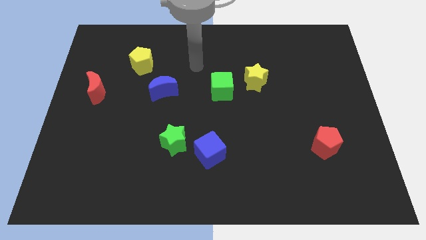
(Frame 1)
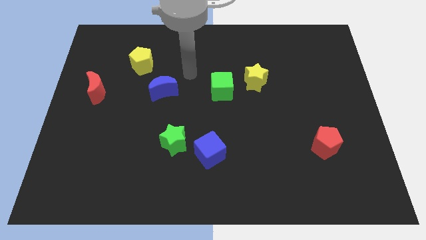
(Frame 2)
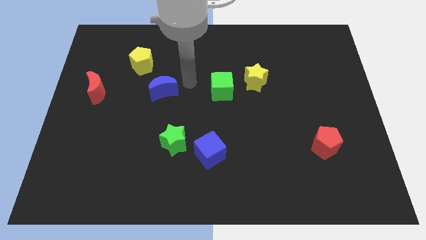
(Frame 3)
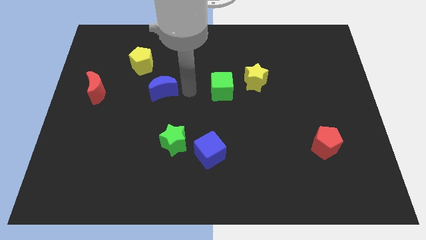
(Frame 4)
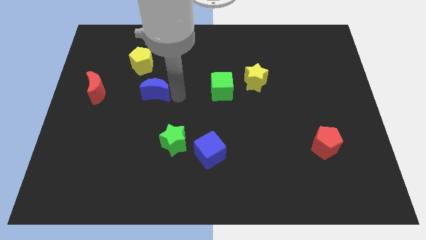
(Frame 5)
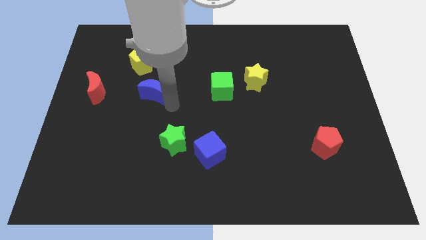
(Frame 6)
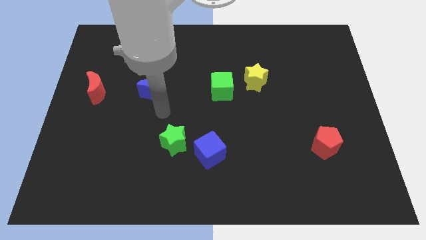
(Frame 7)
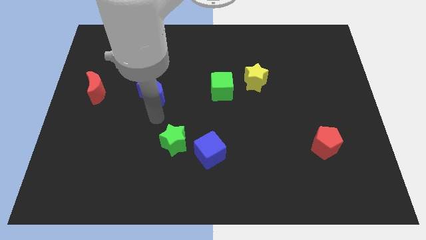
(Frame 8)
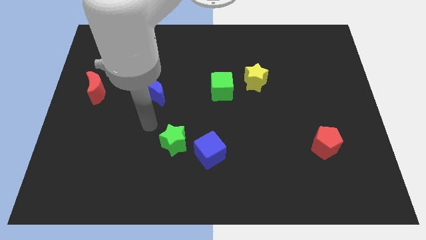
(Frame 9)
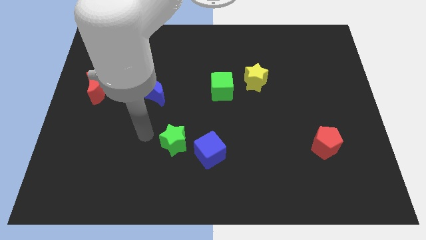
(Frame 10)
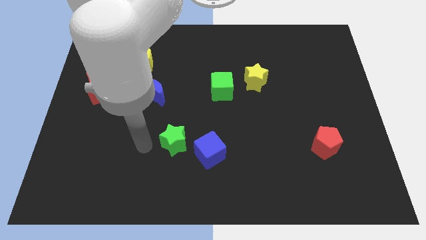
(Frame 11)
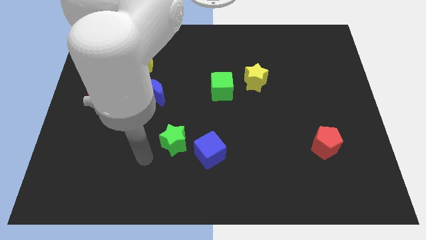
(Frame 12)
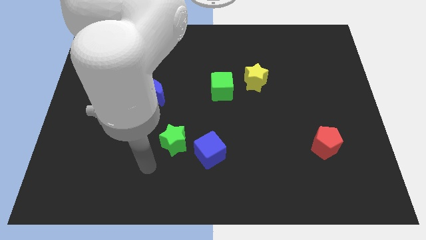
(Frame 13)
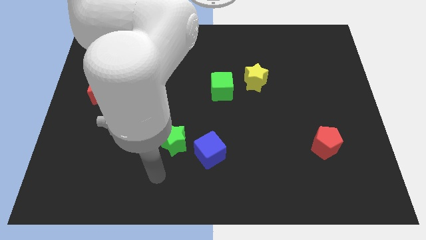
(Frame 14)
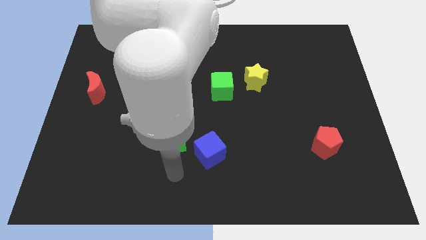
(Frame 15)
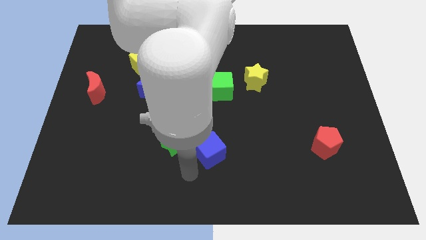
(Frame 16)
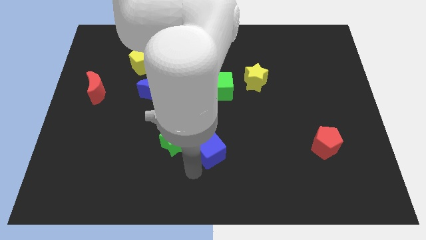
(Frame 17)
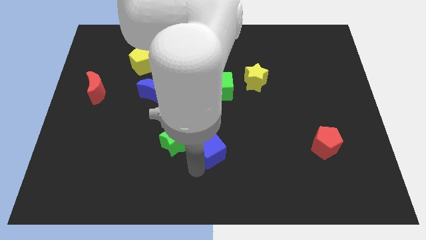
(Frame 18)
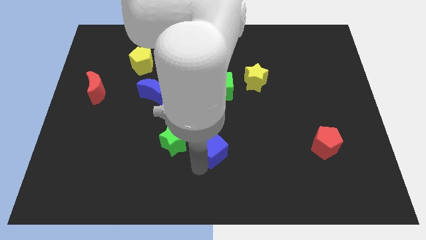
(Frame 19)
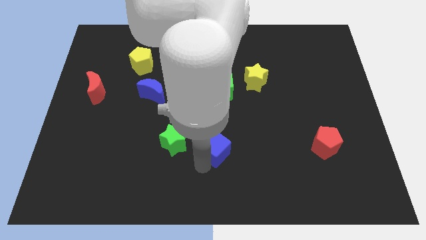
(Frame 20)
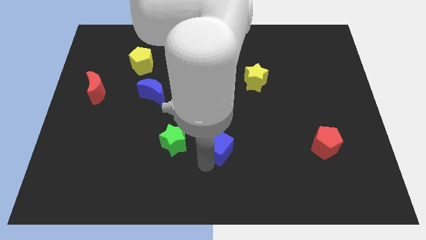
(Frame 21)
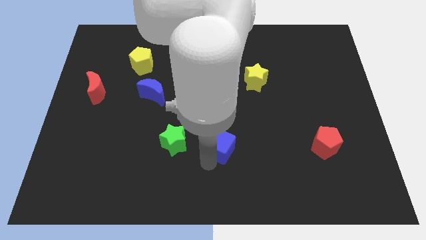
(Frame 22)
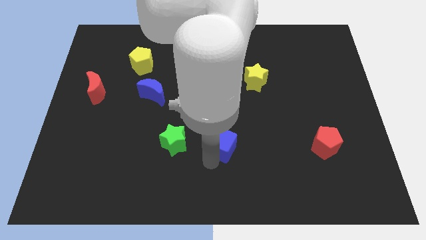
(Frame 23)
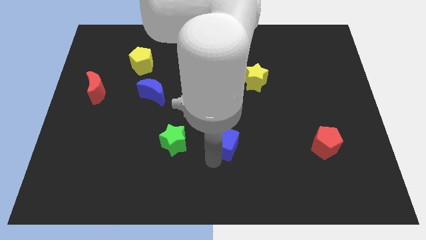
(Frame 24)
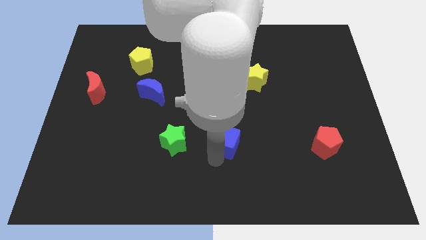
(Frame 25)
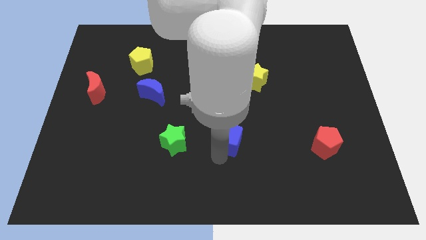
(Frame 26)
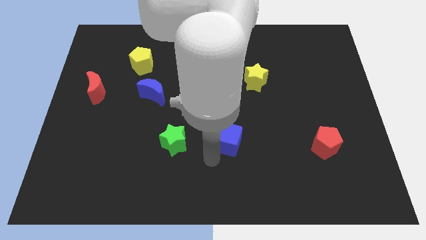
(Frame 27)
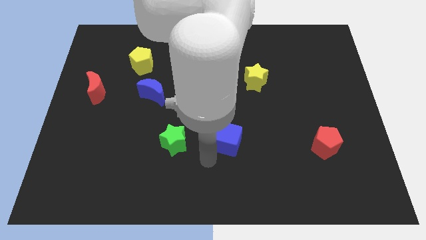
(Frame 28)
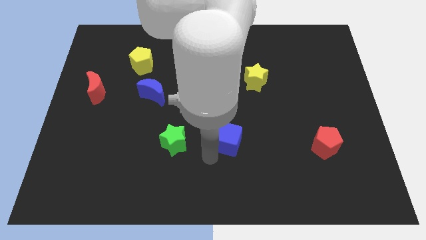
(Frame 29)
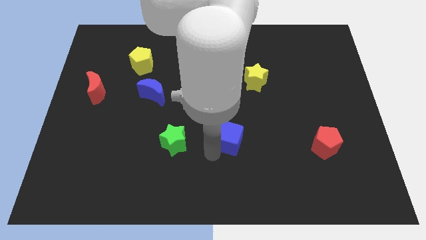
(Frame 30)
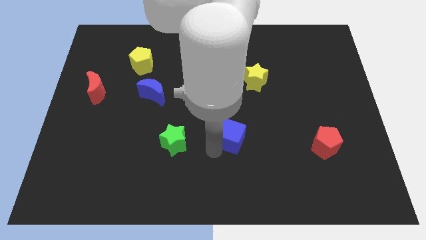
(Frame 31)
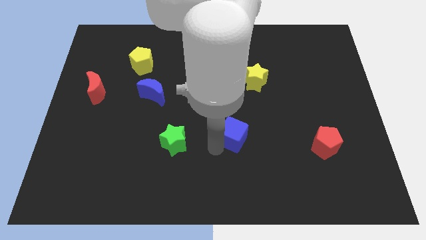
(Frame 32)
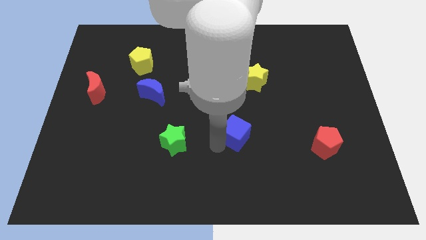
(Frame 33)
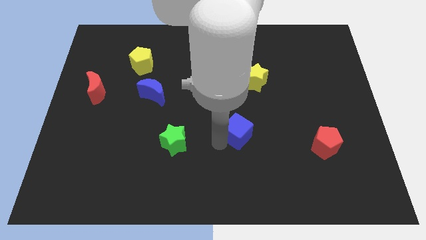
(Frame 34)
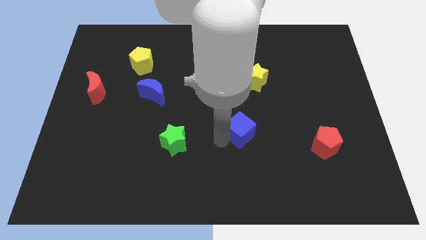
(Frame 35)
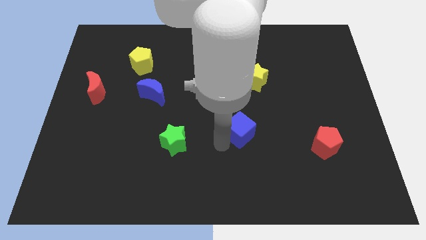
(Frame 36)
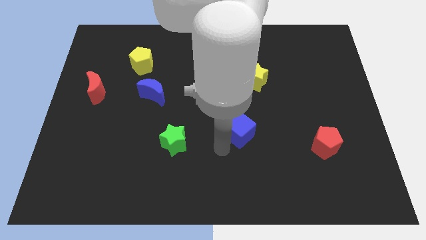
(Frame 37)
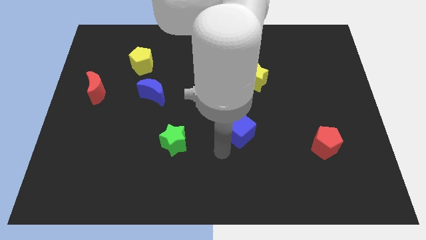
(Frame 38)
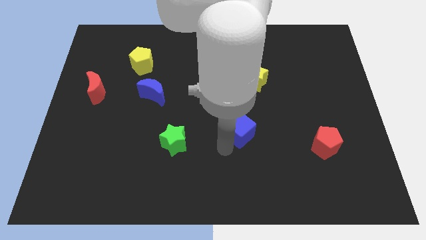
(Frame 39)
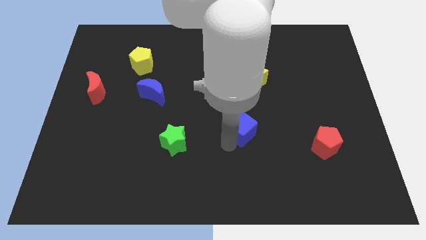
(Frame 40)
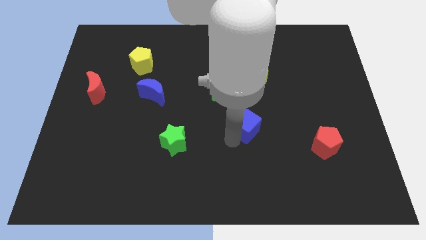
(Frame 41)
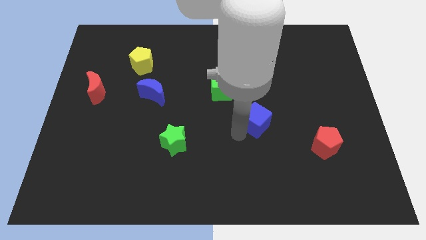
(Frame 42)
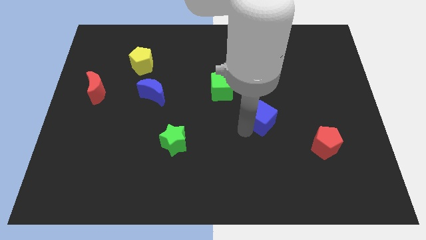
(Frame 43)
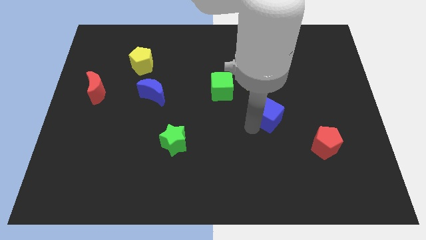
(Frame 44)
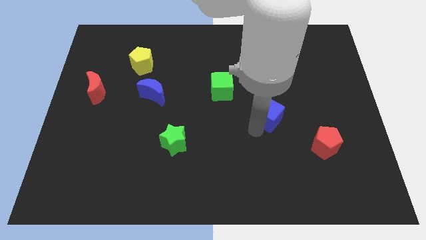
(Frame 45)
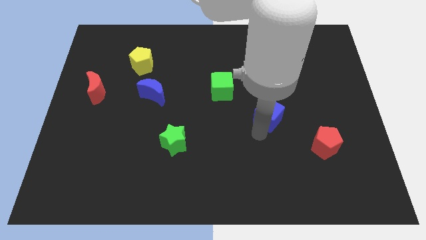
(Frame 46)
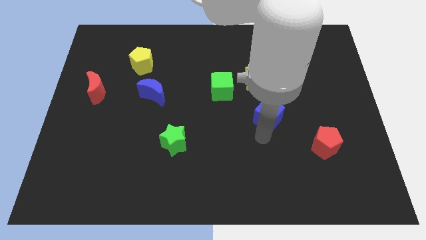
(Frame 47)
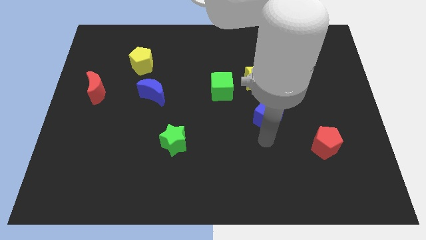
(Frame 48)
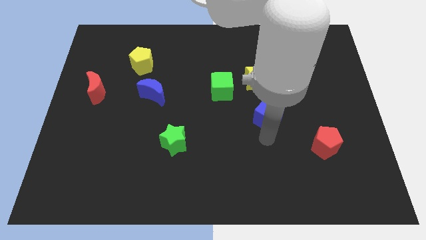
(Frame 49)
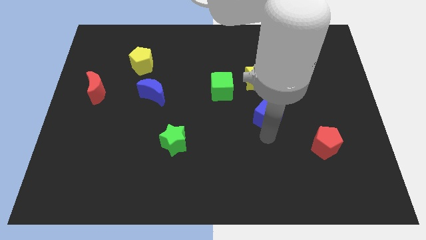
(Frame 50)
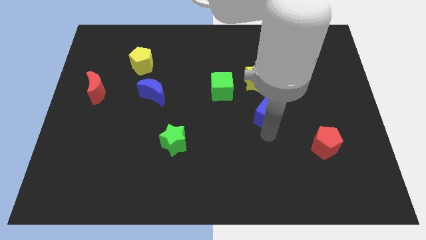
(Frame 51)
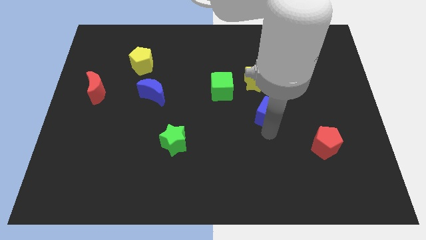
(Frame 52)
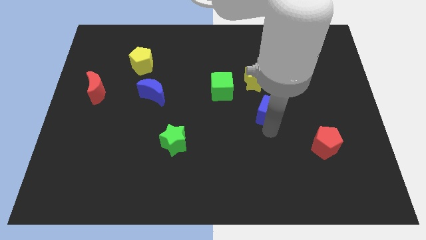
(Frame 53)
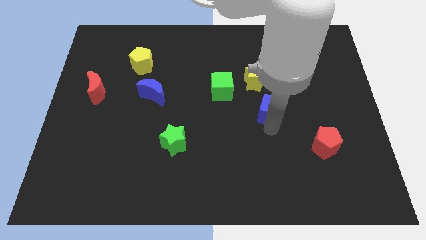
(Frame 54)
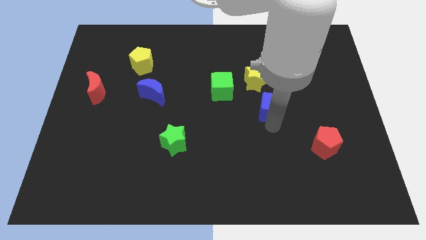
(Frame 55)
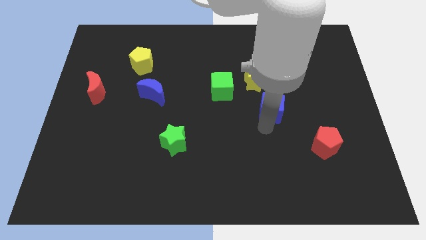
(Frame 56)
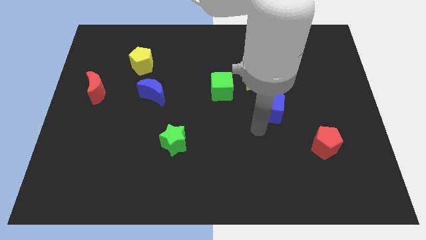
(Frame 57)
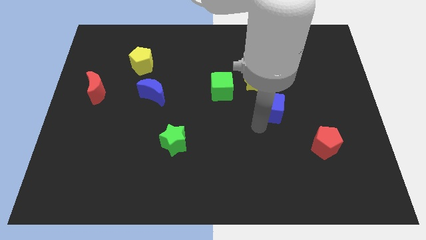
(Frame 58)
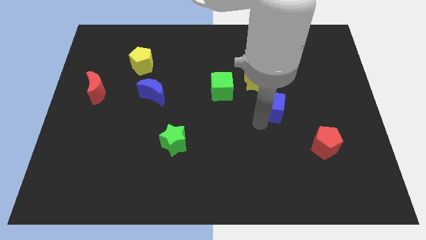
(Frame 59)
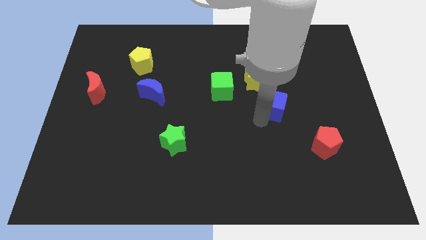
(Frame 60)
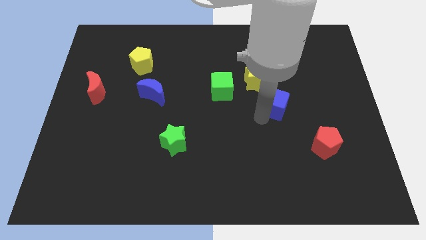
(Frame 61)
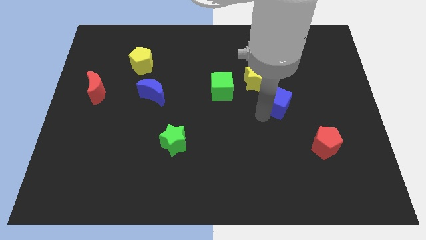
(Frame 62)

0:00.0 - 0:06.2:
move the blue cube upwards and right diagonally

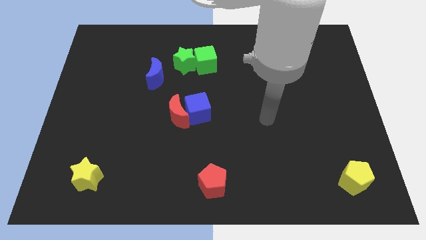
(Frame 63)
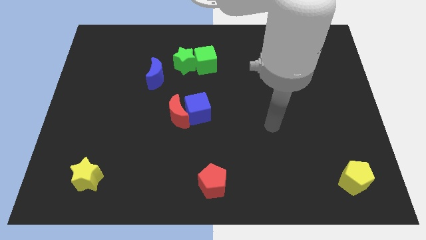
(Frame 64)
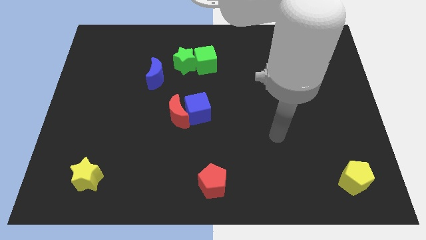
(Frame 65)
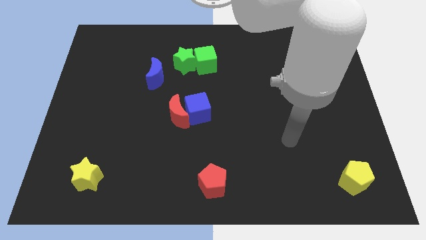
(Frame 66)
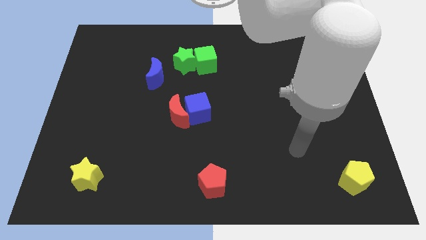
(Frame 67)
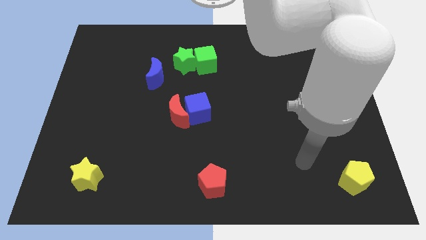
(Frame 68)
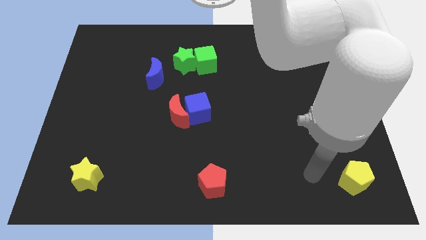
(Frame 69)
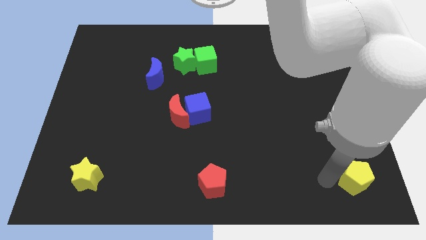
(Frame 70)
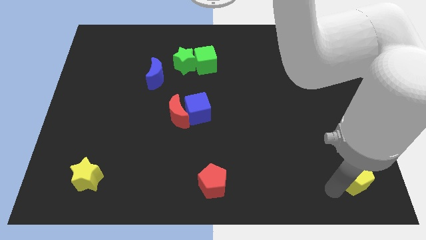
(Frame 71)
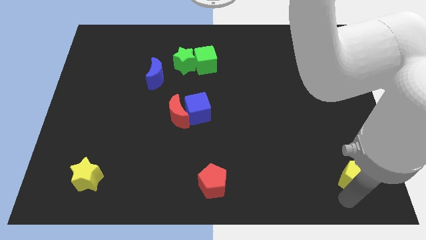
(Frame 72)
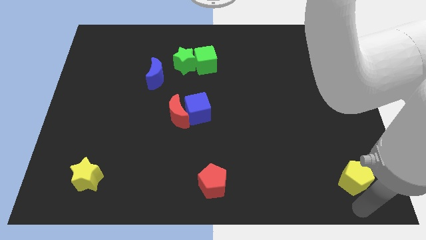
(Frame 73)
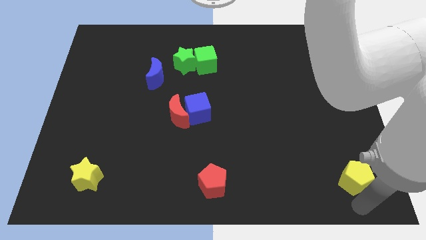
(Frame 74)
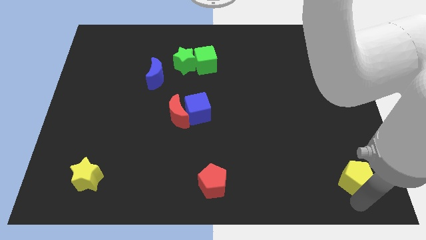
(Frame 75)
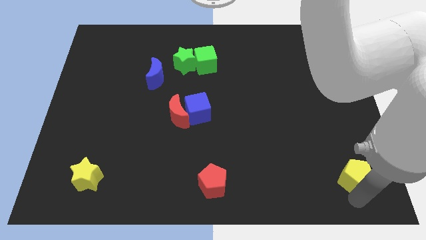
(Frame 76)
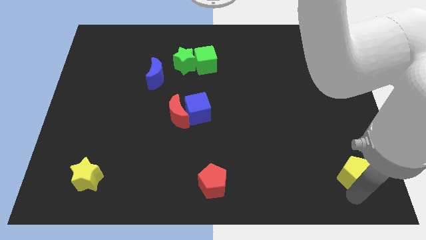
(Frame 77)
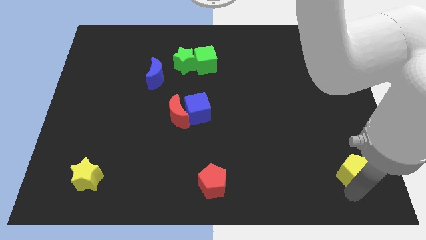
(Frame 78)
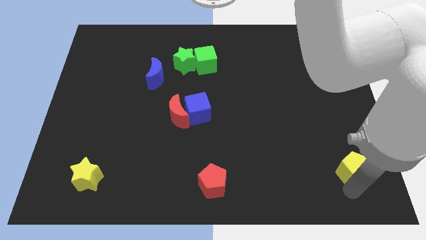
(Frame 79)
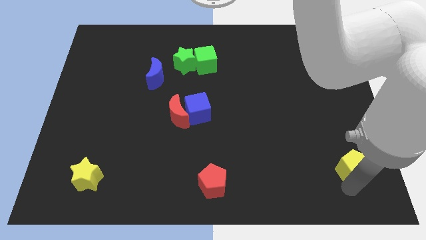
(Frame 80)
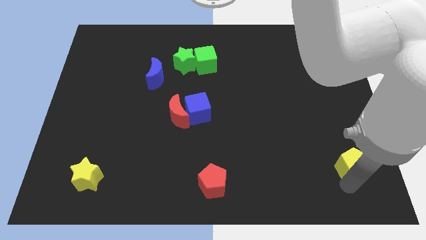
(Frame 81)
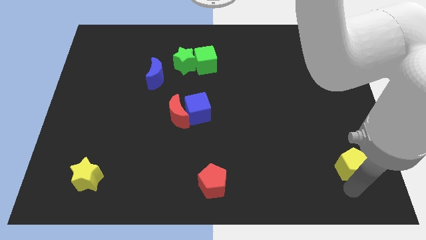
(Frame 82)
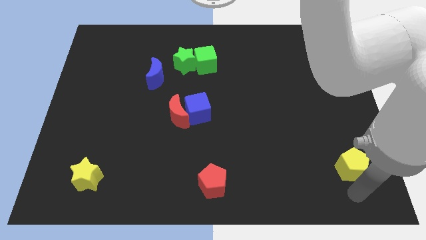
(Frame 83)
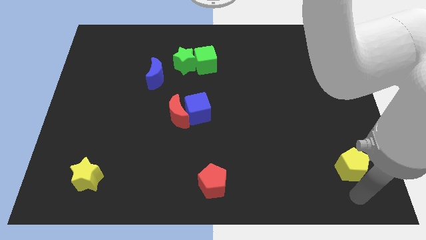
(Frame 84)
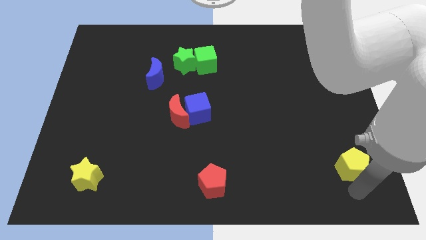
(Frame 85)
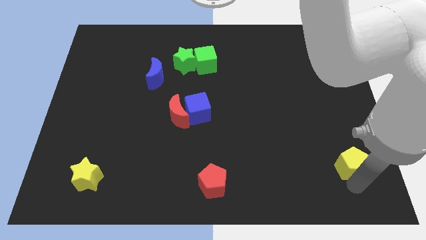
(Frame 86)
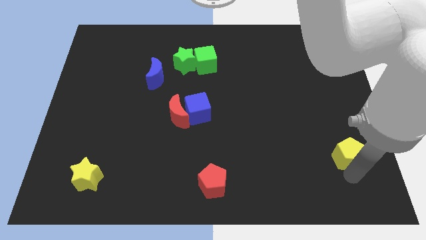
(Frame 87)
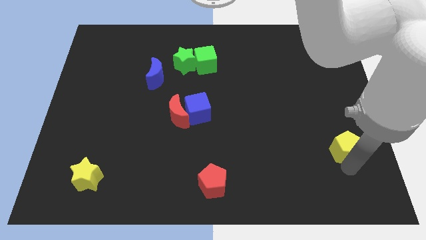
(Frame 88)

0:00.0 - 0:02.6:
slightly slide the yellow pentagon up
